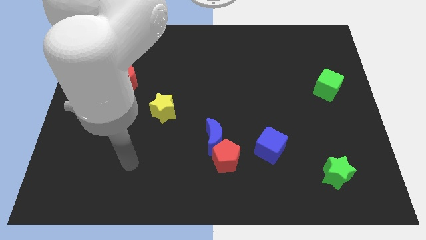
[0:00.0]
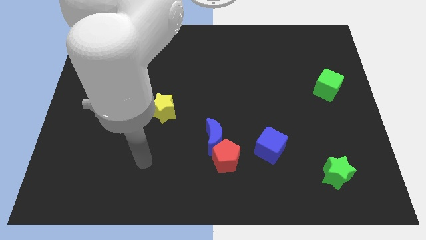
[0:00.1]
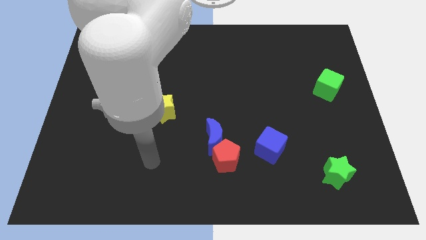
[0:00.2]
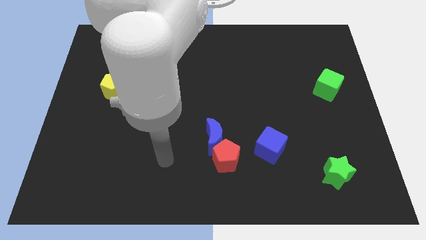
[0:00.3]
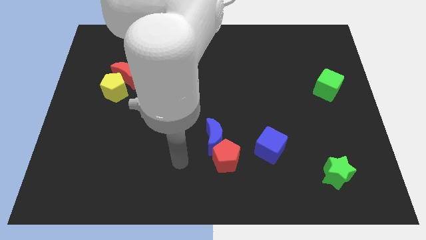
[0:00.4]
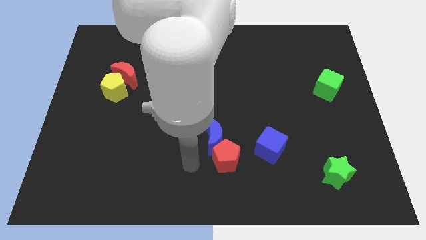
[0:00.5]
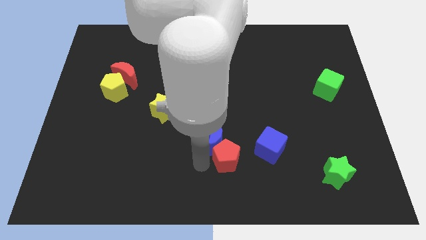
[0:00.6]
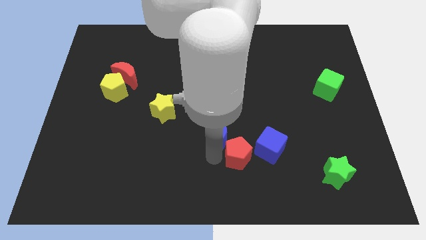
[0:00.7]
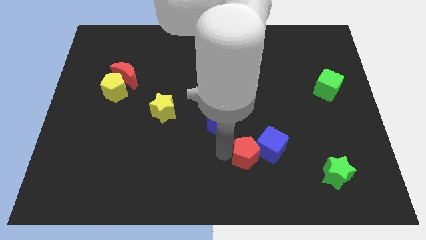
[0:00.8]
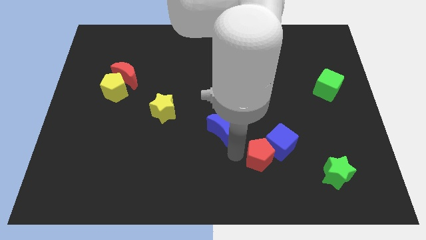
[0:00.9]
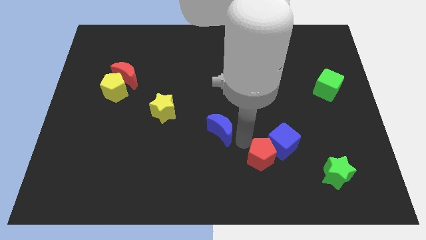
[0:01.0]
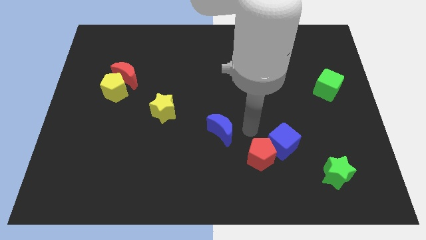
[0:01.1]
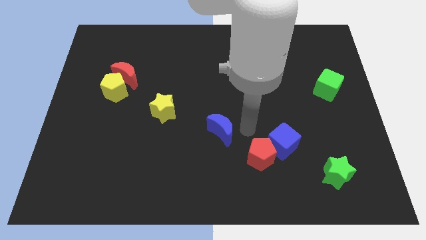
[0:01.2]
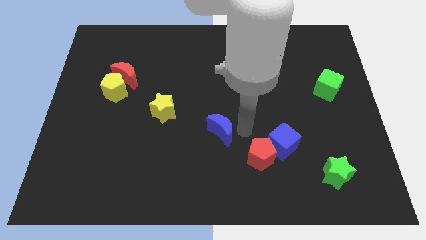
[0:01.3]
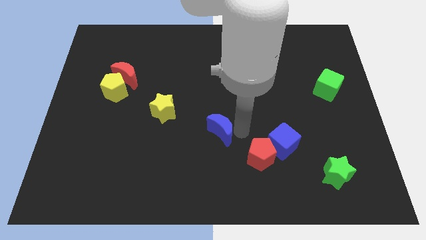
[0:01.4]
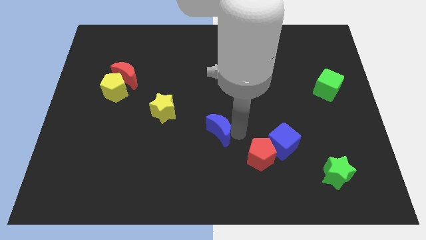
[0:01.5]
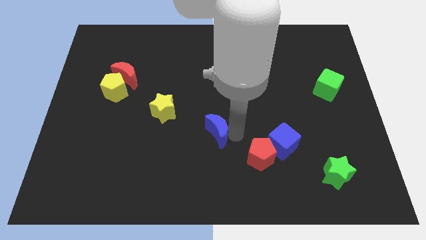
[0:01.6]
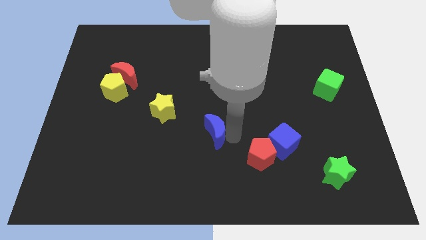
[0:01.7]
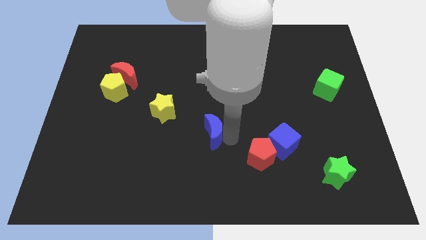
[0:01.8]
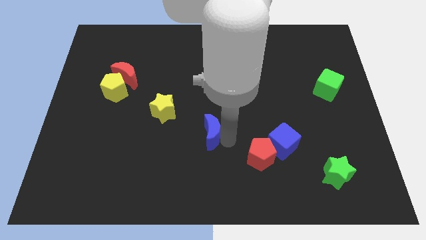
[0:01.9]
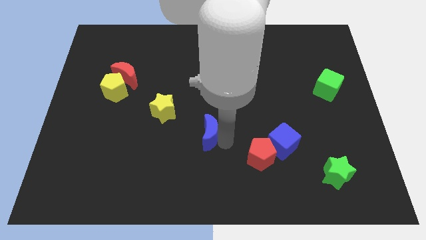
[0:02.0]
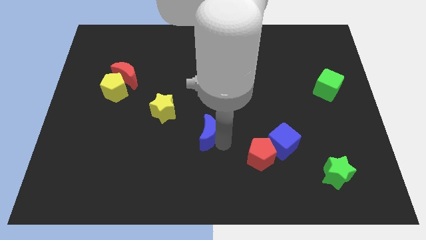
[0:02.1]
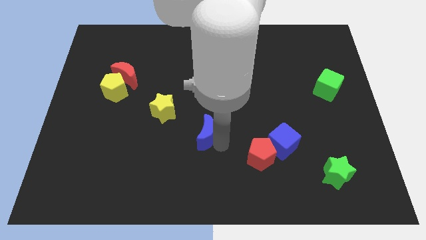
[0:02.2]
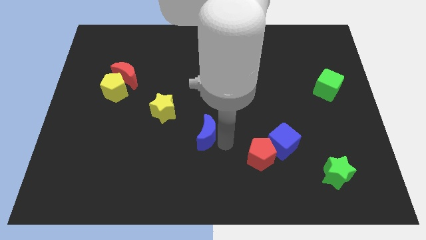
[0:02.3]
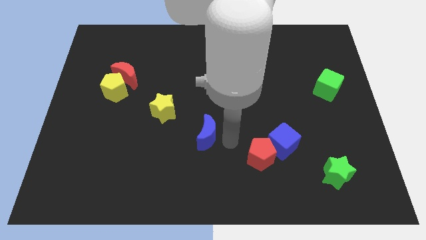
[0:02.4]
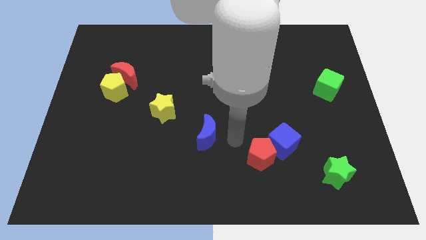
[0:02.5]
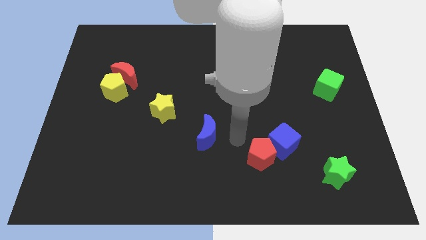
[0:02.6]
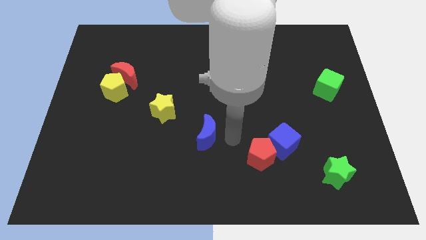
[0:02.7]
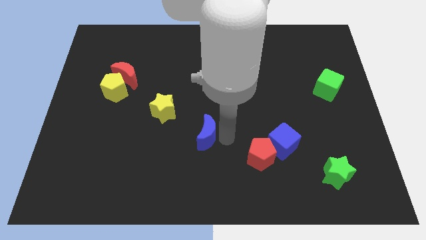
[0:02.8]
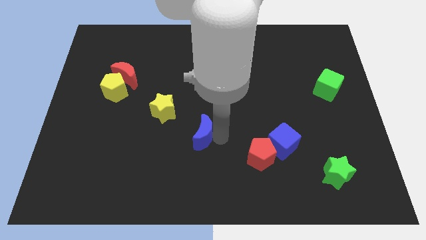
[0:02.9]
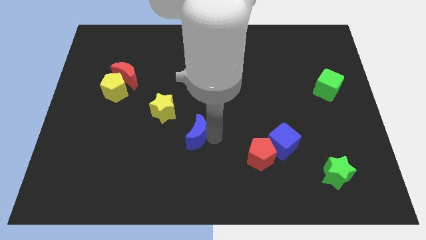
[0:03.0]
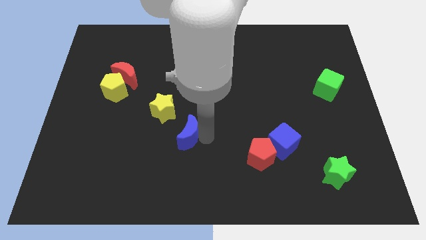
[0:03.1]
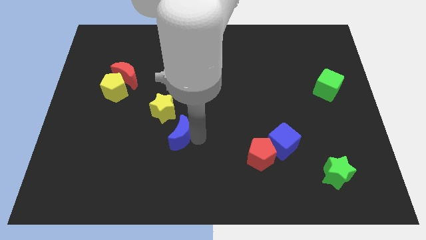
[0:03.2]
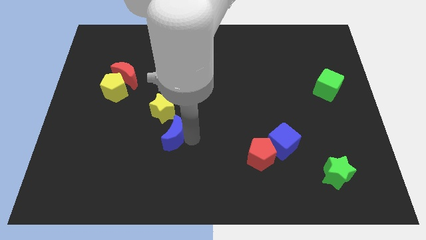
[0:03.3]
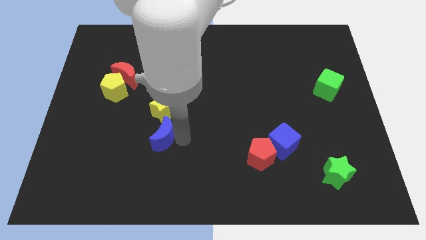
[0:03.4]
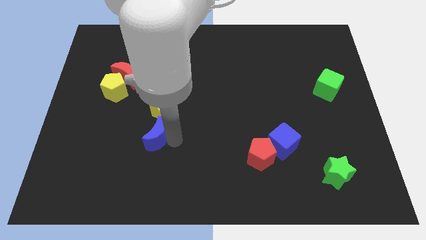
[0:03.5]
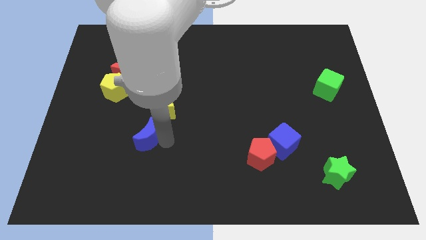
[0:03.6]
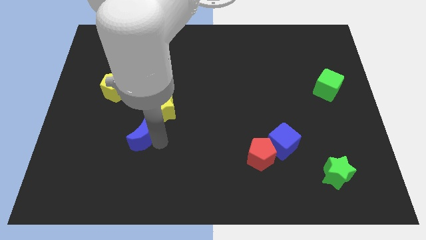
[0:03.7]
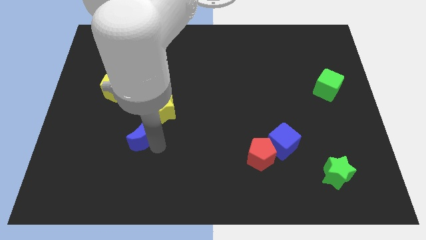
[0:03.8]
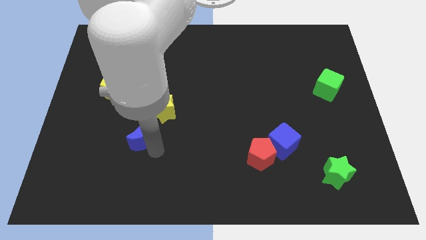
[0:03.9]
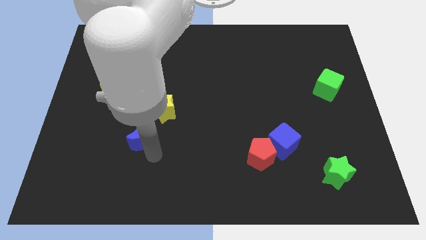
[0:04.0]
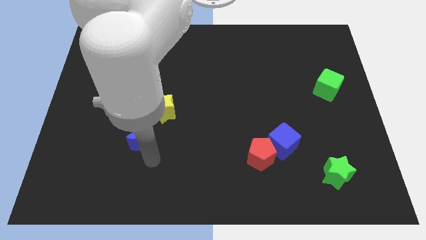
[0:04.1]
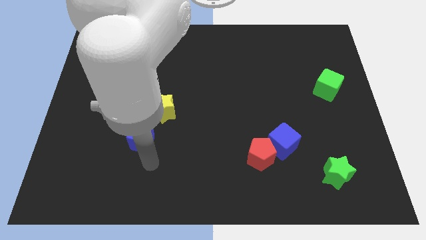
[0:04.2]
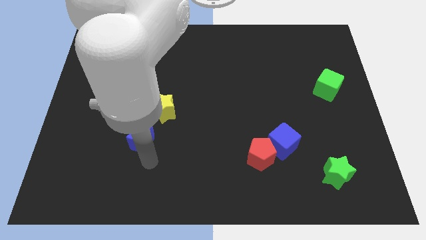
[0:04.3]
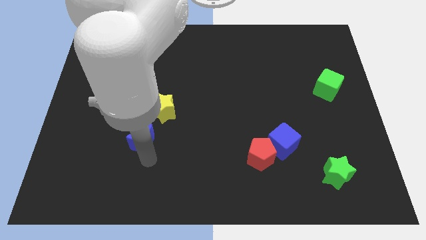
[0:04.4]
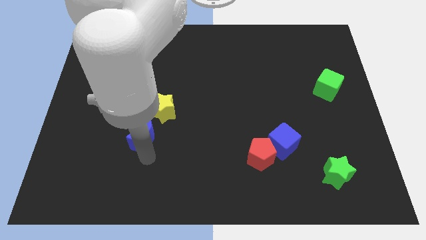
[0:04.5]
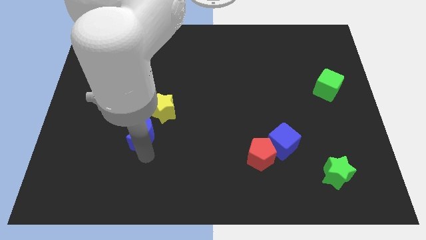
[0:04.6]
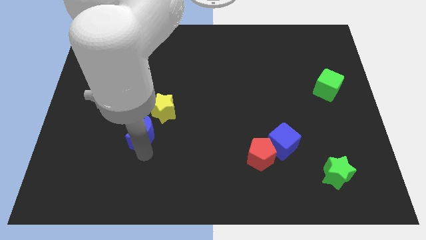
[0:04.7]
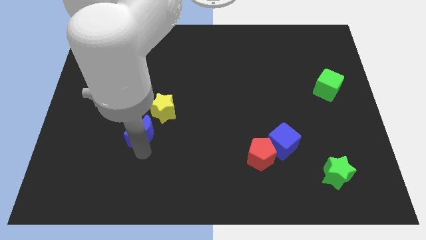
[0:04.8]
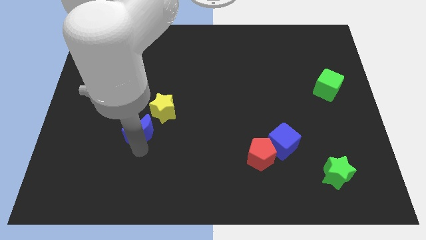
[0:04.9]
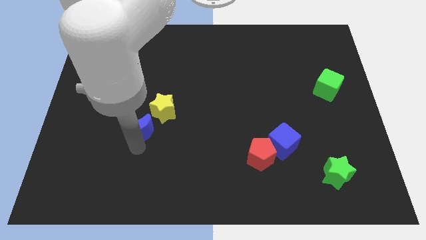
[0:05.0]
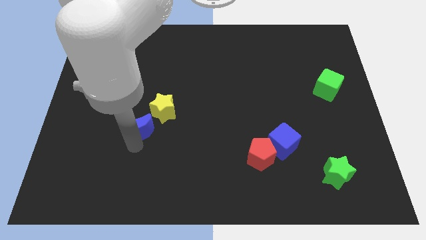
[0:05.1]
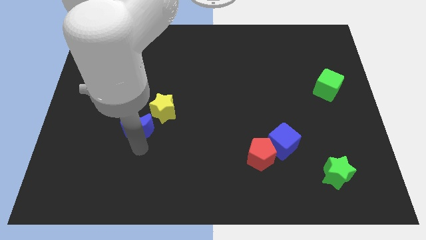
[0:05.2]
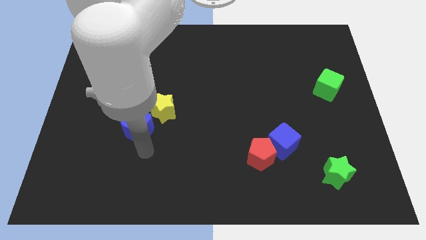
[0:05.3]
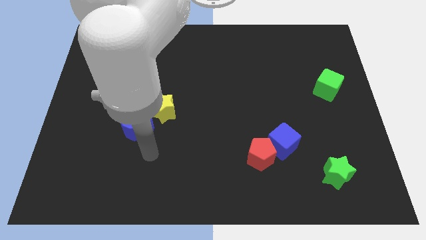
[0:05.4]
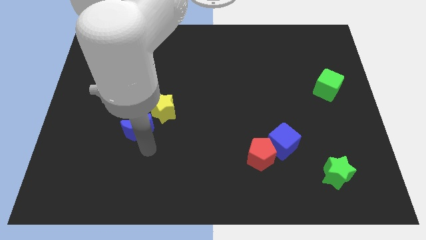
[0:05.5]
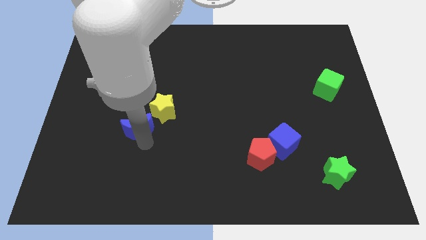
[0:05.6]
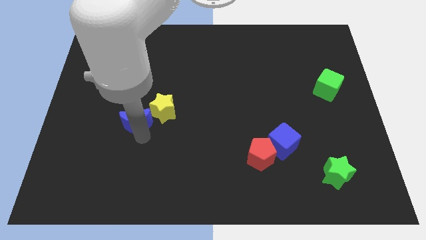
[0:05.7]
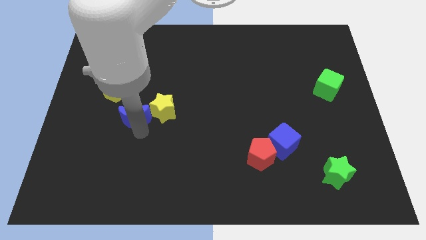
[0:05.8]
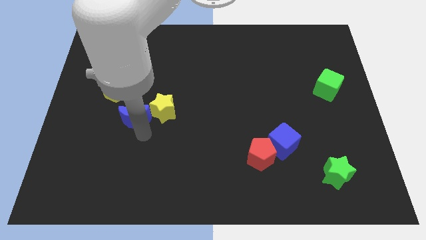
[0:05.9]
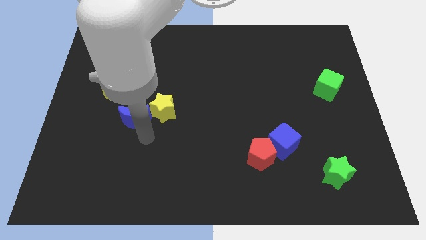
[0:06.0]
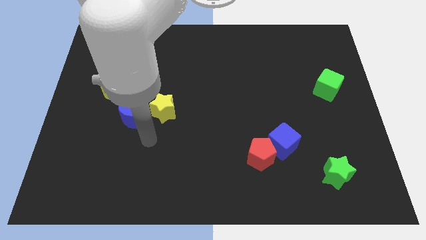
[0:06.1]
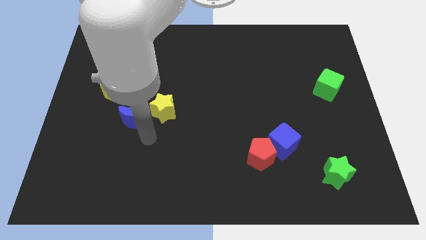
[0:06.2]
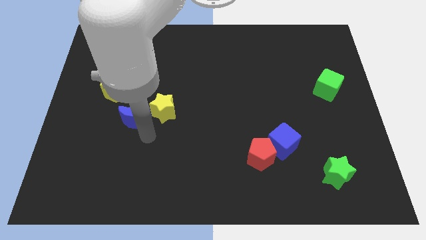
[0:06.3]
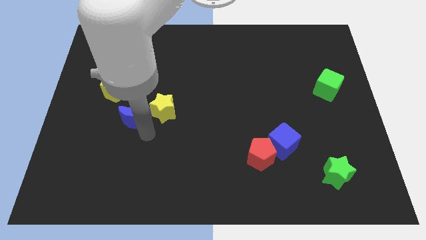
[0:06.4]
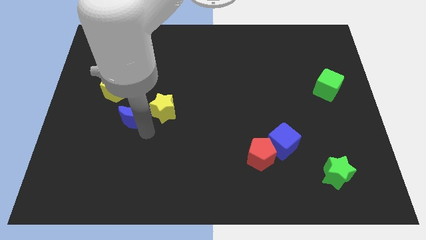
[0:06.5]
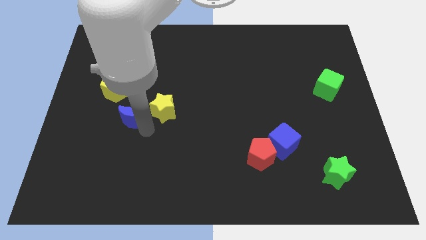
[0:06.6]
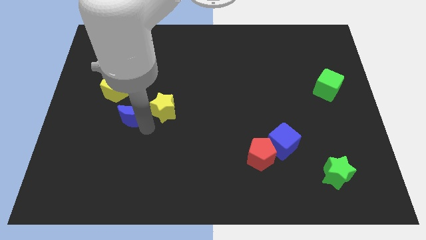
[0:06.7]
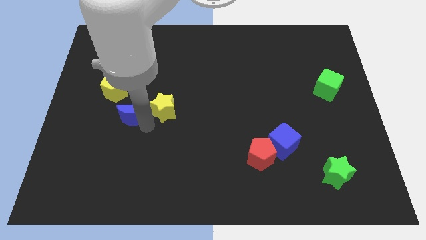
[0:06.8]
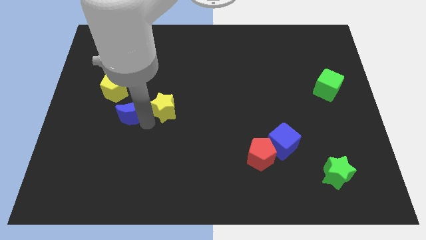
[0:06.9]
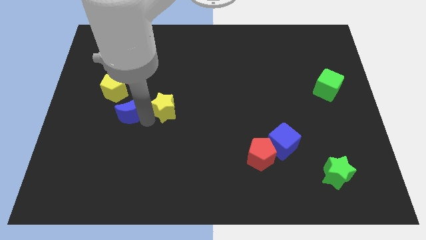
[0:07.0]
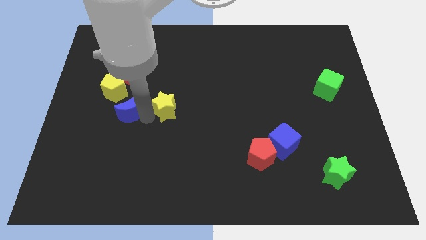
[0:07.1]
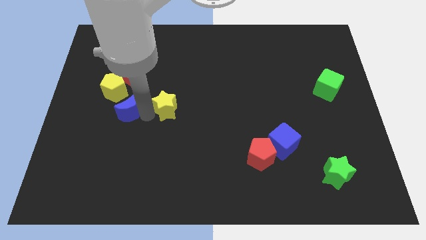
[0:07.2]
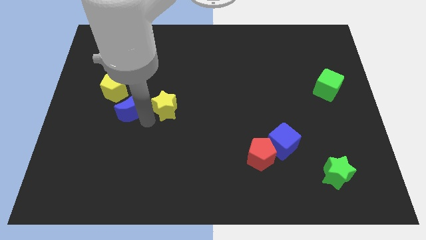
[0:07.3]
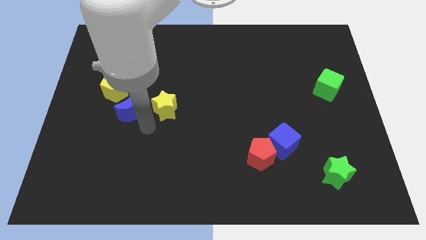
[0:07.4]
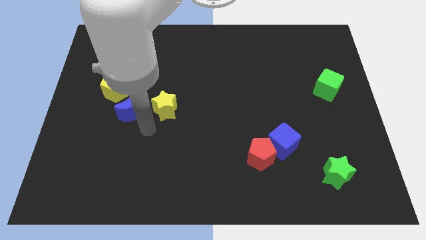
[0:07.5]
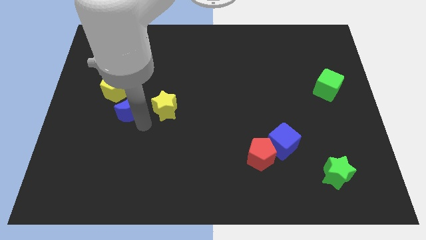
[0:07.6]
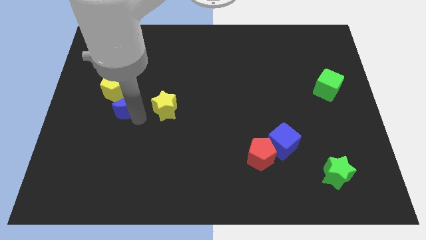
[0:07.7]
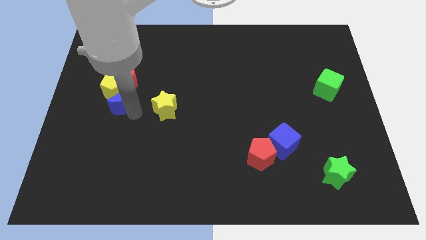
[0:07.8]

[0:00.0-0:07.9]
slide the blue moon close to the yellow pentagon
